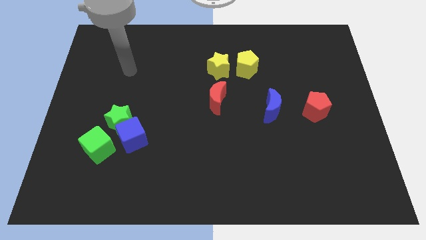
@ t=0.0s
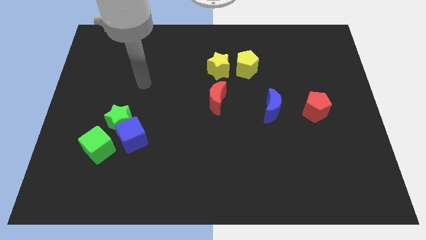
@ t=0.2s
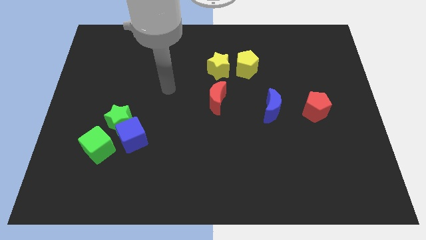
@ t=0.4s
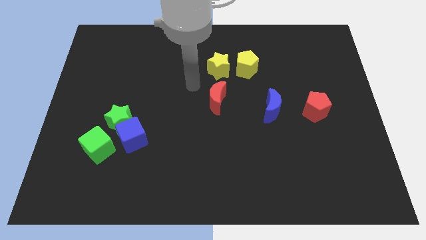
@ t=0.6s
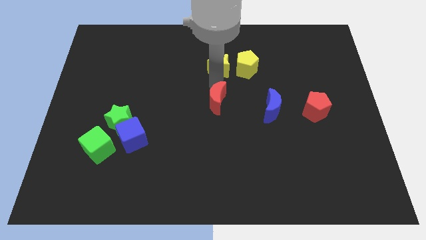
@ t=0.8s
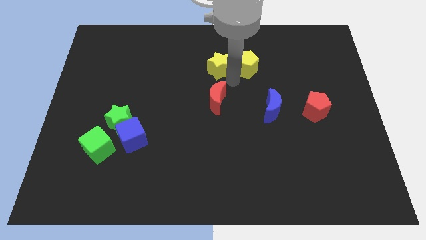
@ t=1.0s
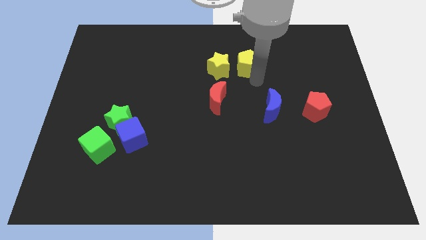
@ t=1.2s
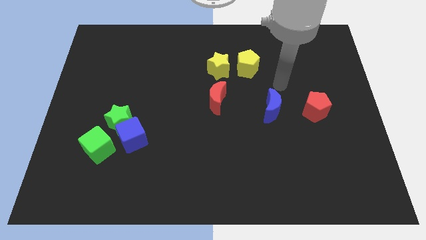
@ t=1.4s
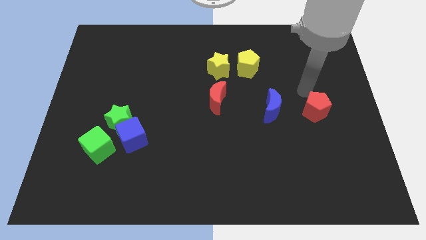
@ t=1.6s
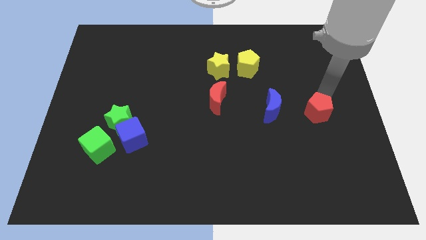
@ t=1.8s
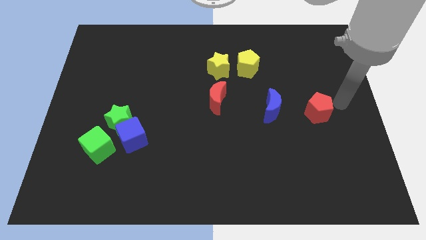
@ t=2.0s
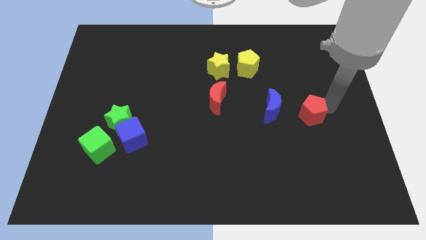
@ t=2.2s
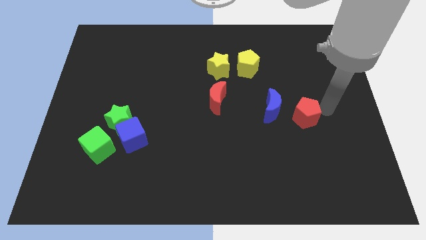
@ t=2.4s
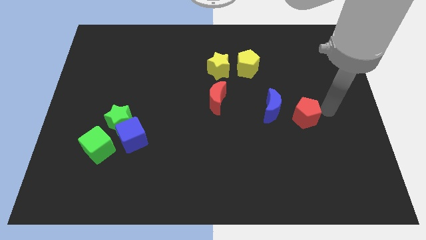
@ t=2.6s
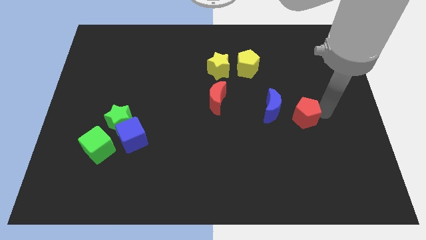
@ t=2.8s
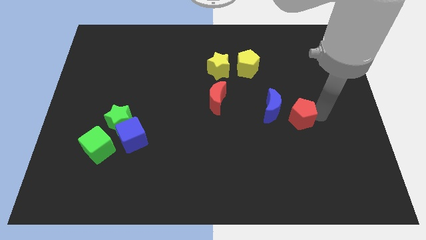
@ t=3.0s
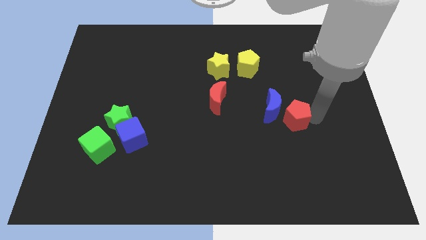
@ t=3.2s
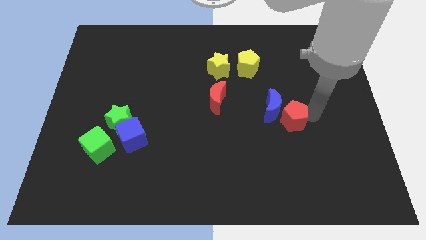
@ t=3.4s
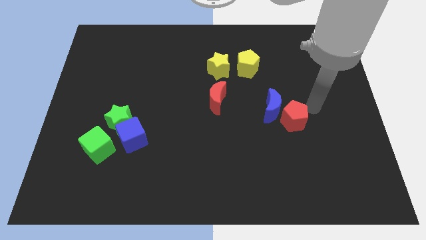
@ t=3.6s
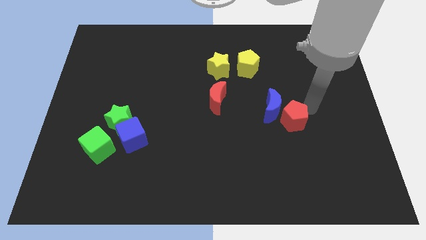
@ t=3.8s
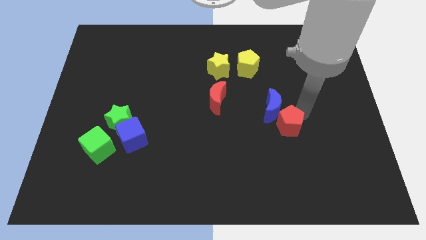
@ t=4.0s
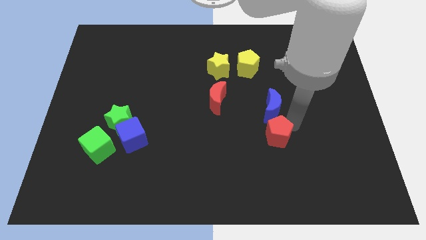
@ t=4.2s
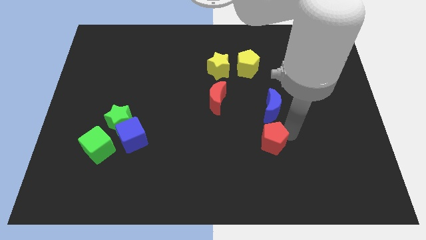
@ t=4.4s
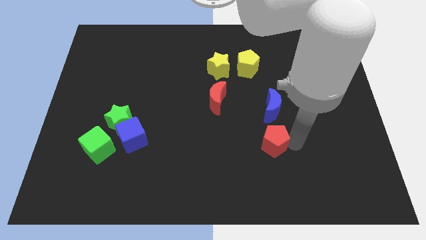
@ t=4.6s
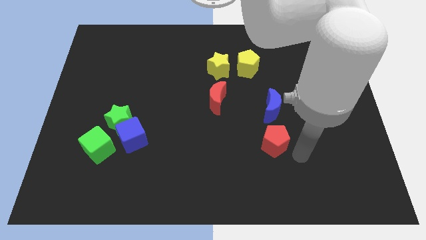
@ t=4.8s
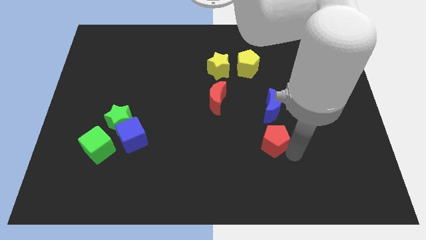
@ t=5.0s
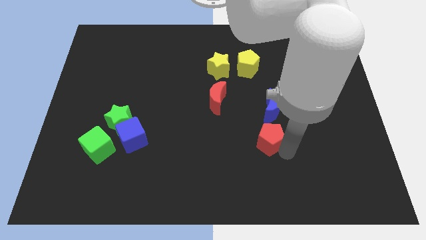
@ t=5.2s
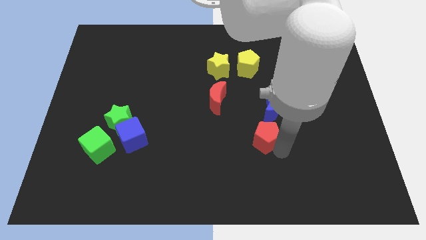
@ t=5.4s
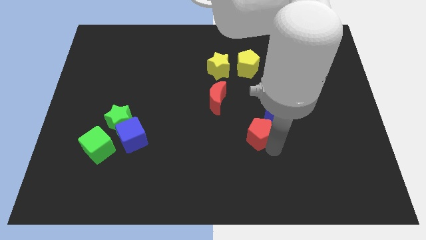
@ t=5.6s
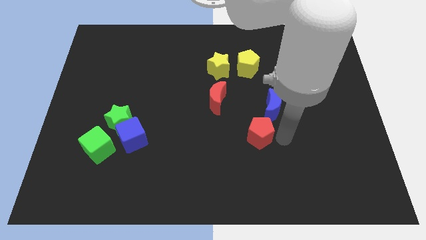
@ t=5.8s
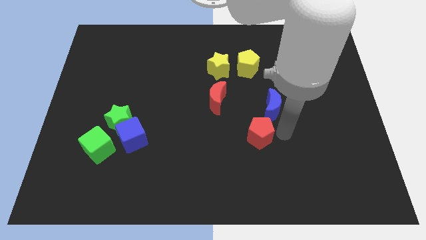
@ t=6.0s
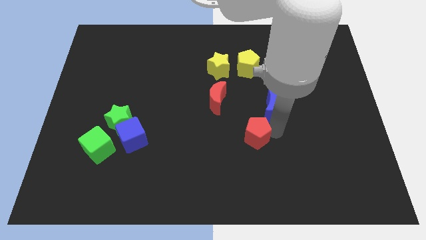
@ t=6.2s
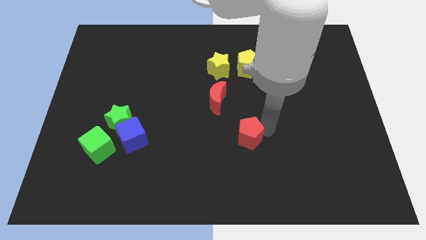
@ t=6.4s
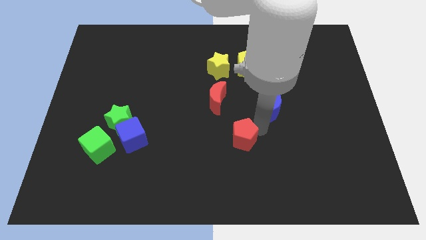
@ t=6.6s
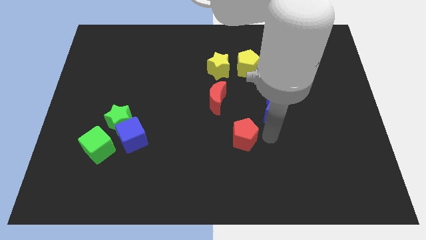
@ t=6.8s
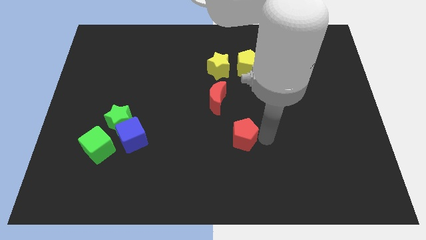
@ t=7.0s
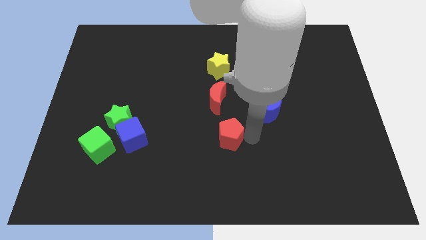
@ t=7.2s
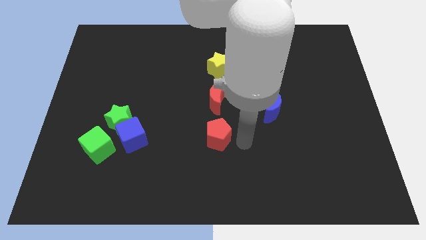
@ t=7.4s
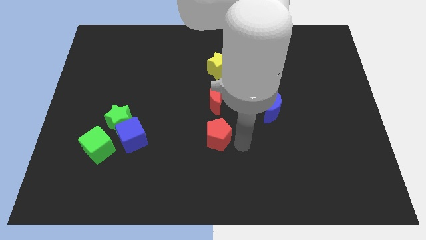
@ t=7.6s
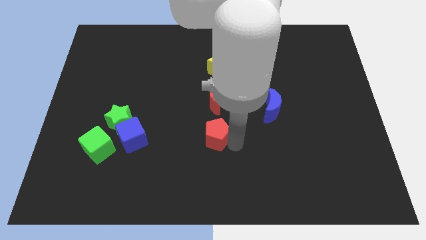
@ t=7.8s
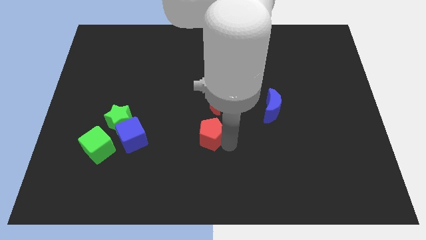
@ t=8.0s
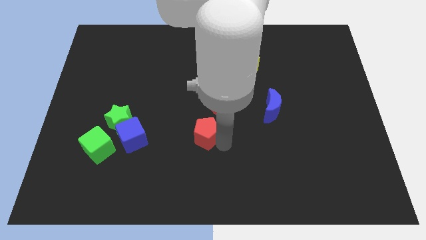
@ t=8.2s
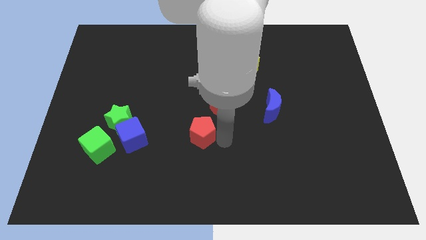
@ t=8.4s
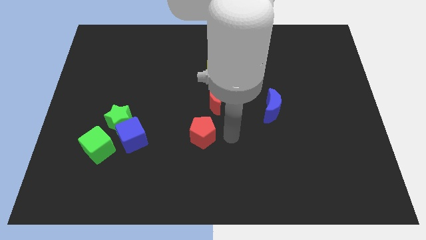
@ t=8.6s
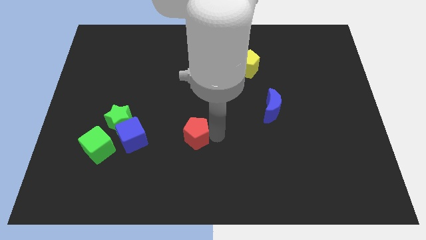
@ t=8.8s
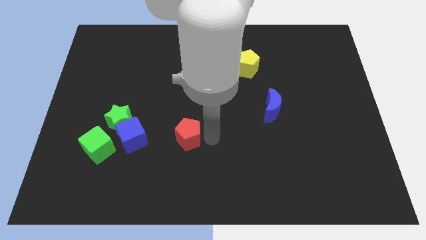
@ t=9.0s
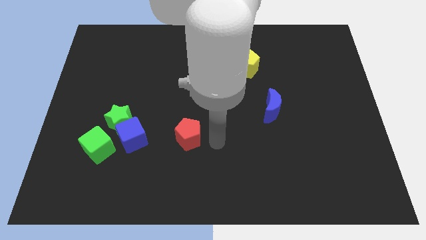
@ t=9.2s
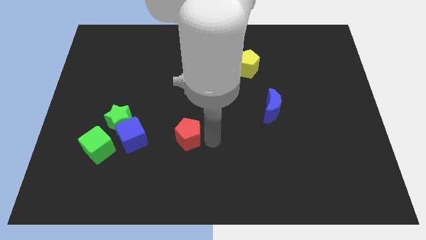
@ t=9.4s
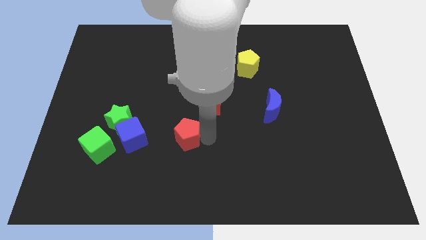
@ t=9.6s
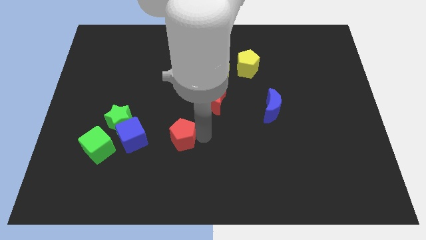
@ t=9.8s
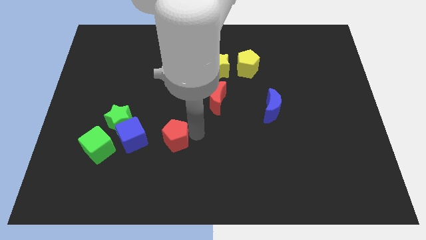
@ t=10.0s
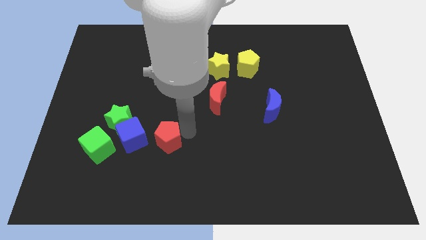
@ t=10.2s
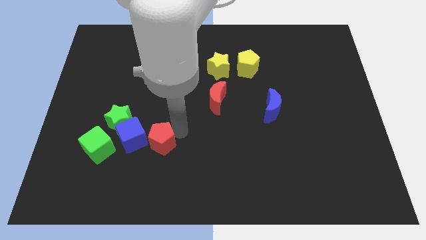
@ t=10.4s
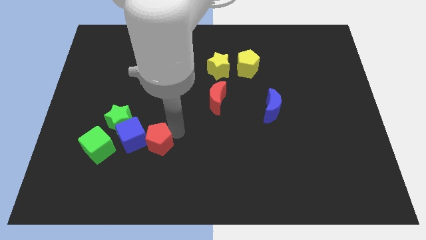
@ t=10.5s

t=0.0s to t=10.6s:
slide the red pentagon to the blue cube

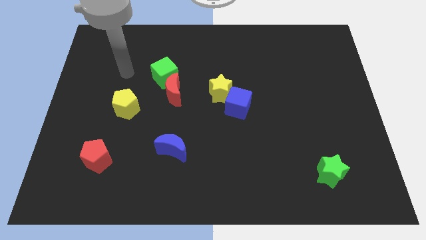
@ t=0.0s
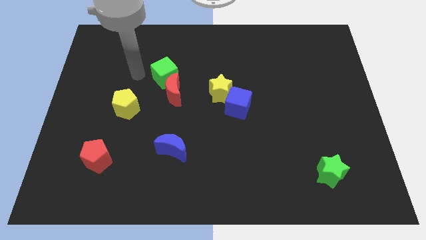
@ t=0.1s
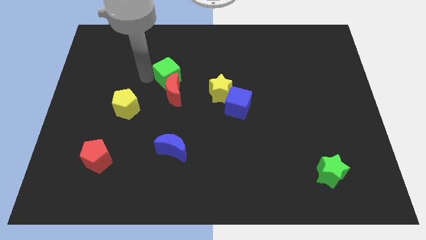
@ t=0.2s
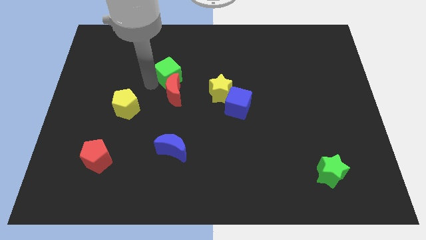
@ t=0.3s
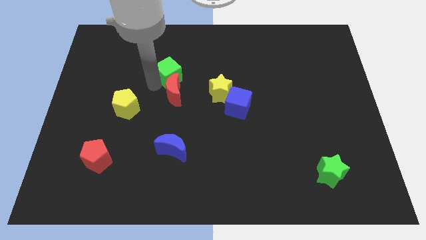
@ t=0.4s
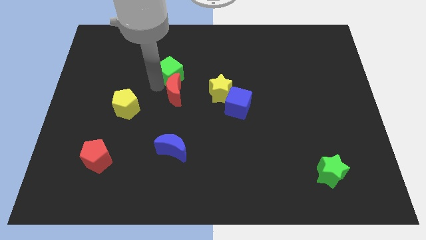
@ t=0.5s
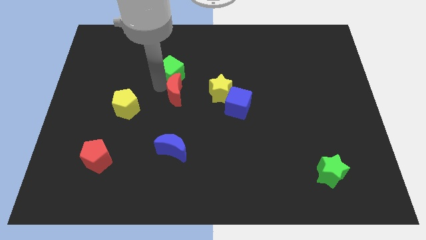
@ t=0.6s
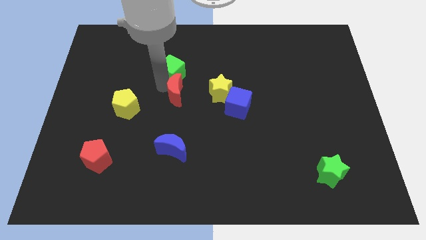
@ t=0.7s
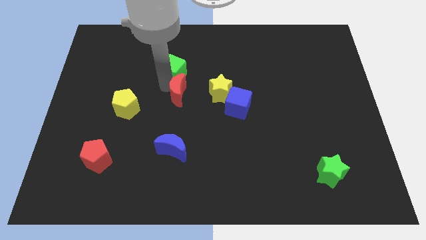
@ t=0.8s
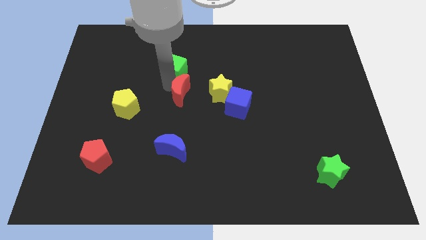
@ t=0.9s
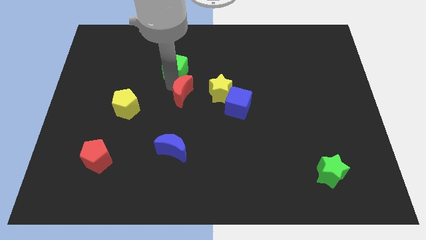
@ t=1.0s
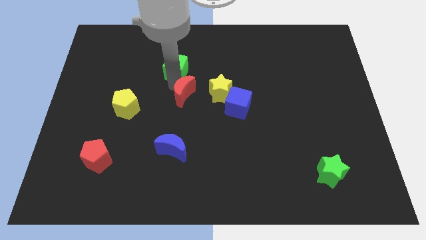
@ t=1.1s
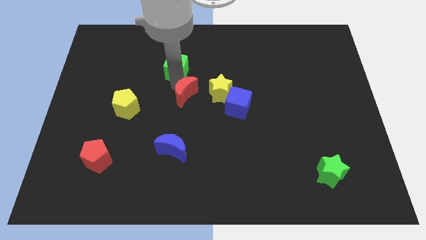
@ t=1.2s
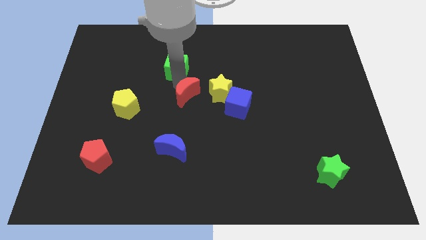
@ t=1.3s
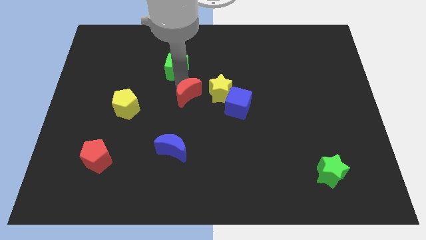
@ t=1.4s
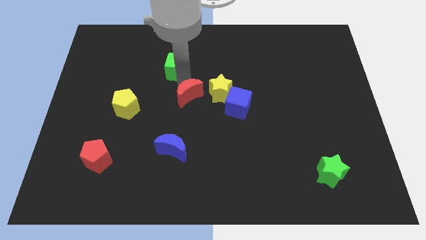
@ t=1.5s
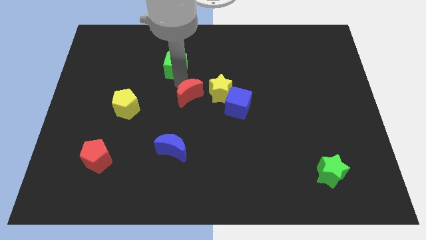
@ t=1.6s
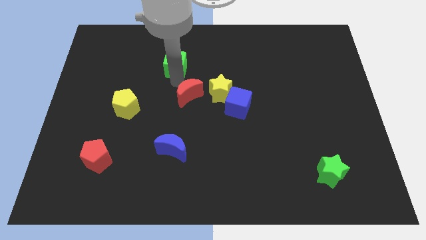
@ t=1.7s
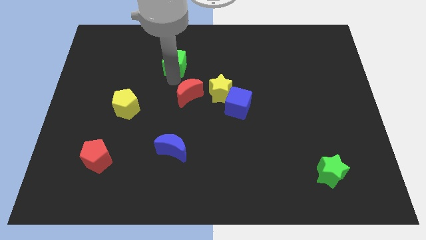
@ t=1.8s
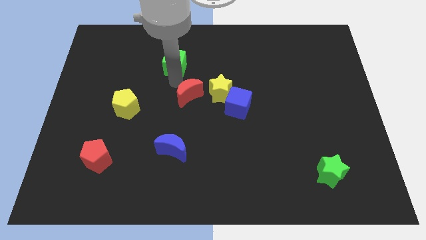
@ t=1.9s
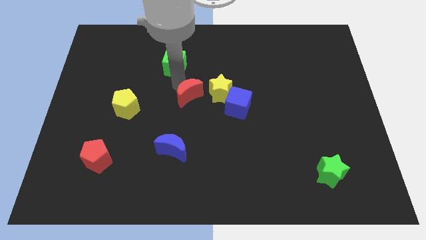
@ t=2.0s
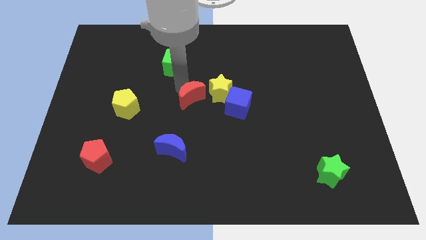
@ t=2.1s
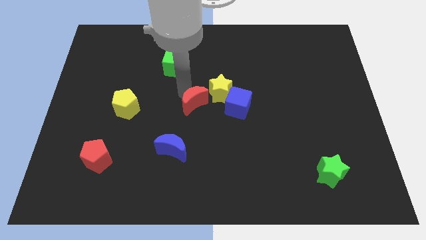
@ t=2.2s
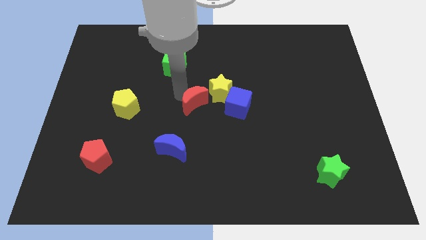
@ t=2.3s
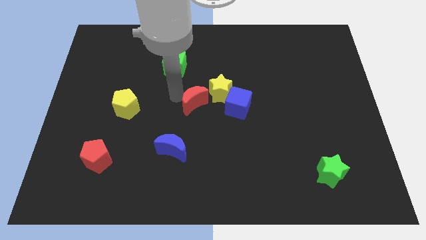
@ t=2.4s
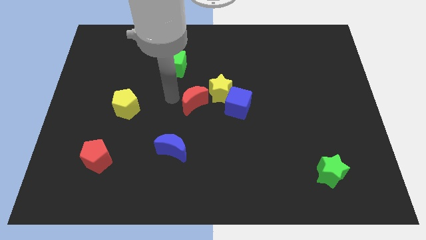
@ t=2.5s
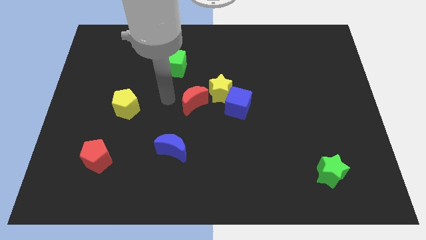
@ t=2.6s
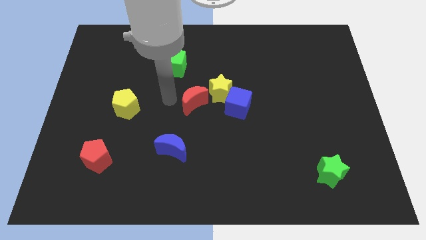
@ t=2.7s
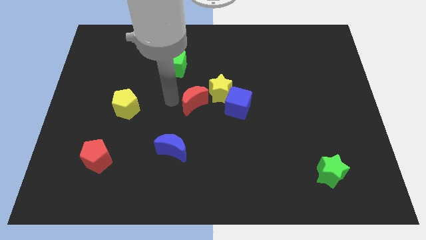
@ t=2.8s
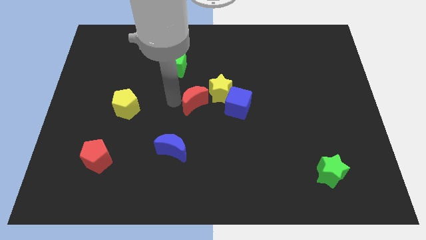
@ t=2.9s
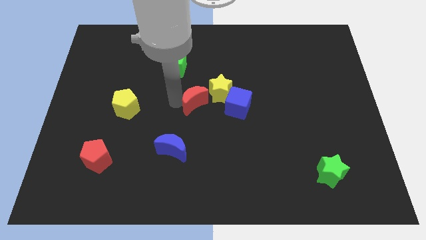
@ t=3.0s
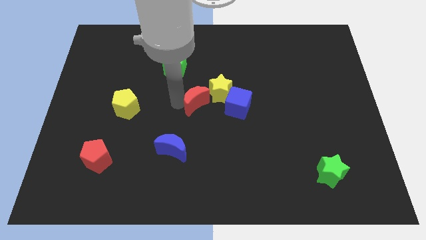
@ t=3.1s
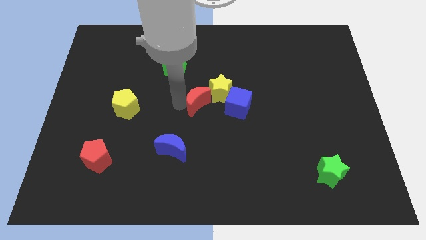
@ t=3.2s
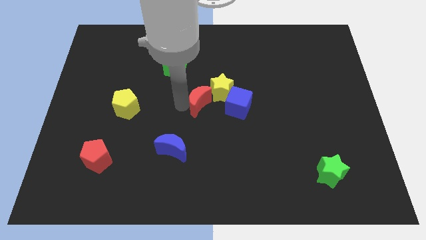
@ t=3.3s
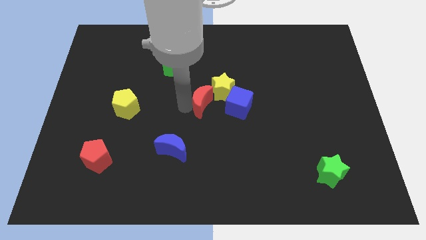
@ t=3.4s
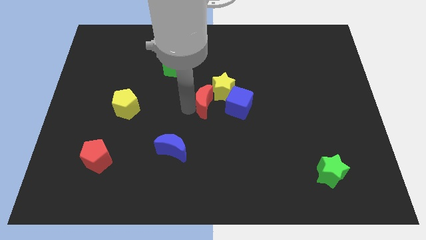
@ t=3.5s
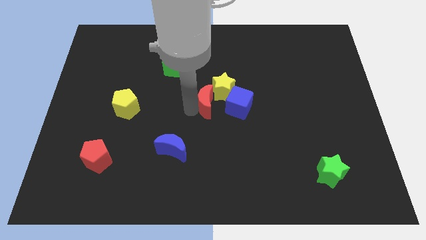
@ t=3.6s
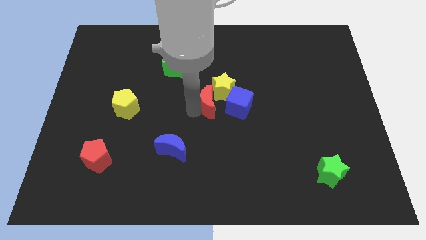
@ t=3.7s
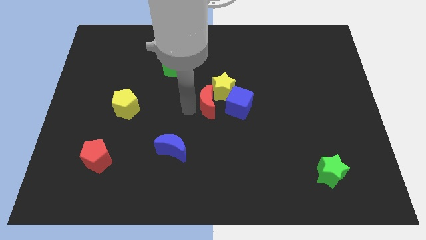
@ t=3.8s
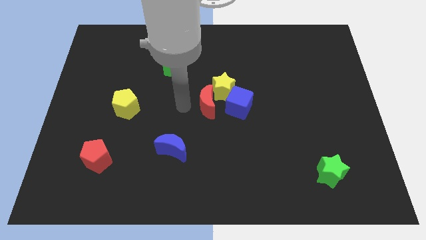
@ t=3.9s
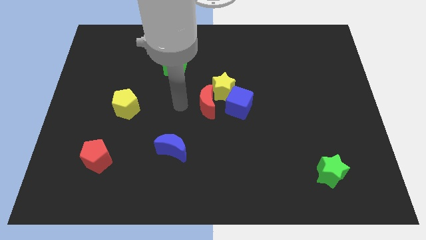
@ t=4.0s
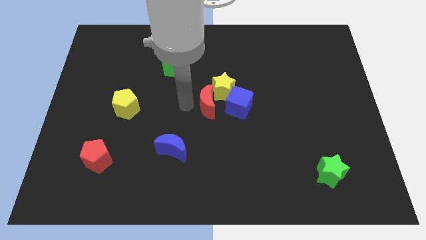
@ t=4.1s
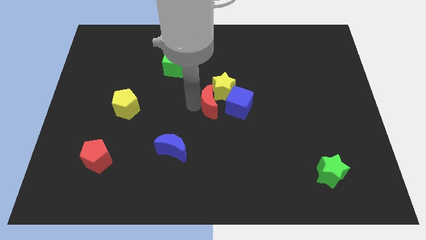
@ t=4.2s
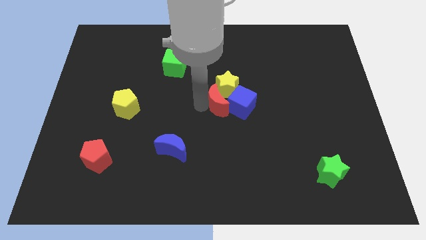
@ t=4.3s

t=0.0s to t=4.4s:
push the red moon towards the blue cube
